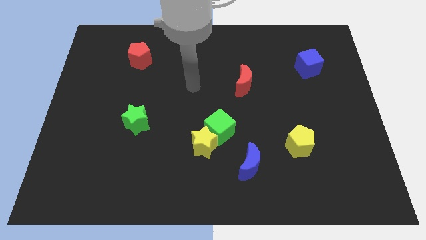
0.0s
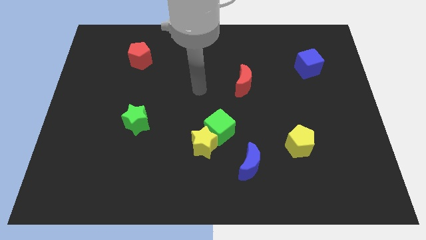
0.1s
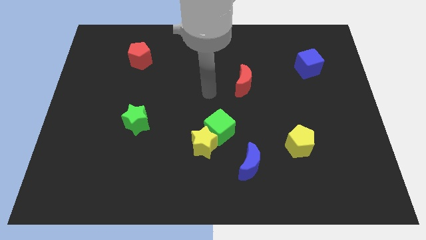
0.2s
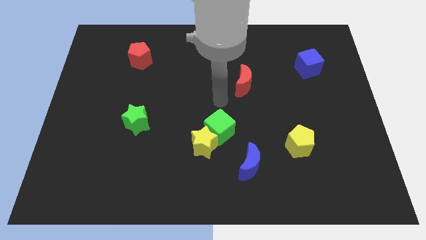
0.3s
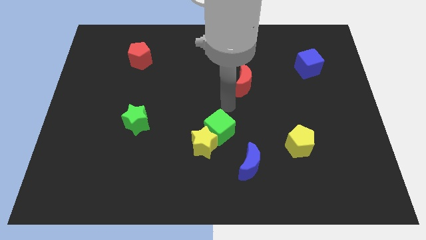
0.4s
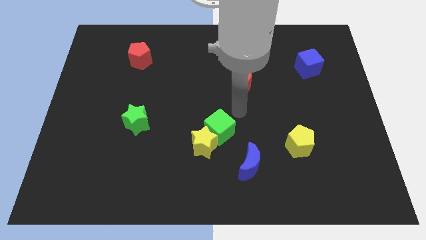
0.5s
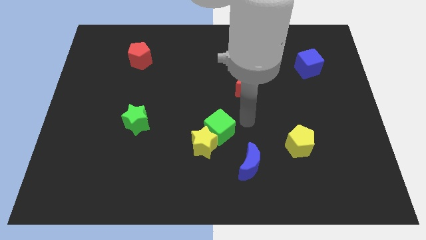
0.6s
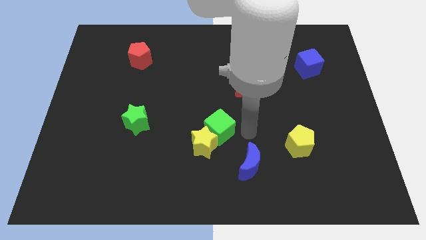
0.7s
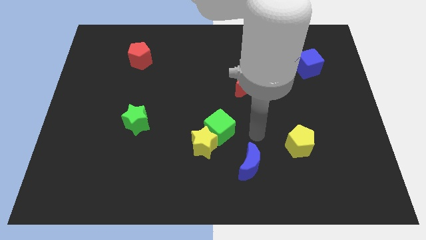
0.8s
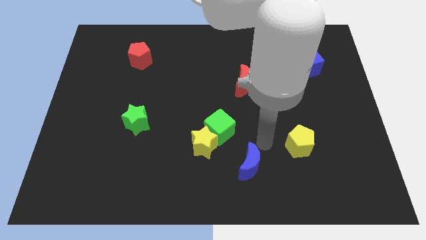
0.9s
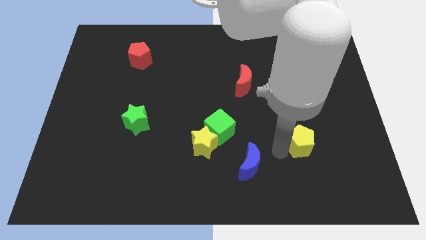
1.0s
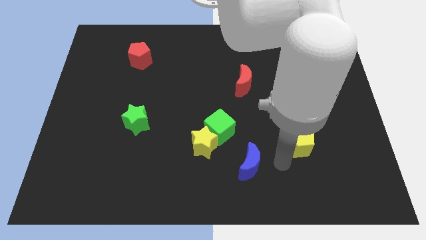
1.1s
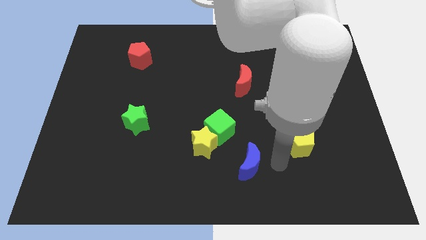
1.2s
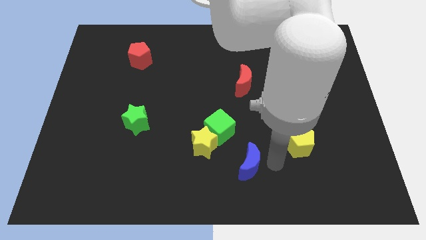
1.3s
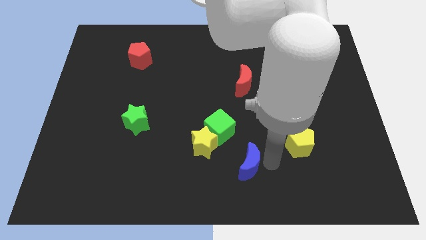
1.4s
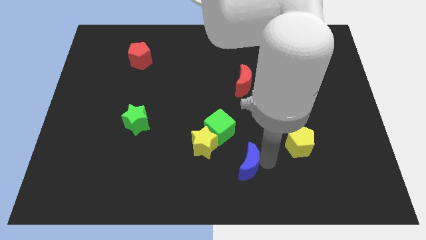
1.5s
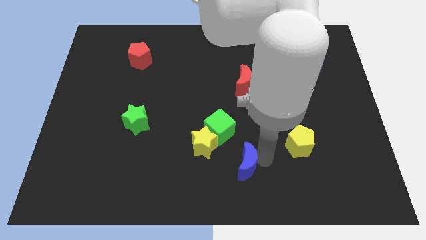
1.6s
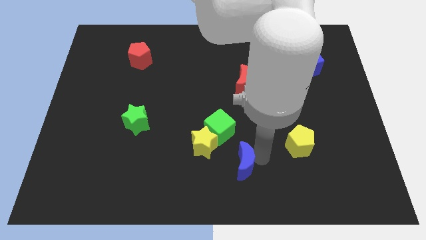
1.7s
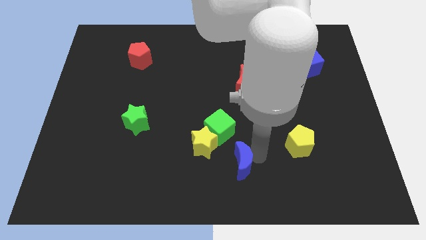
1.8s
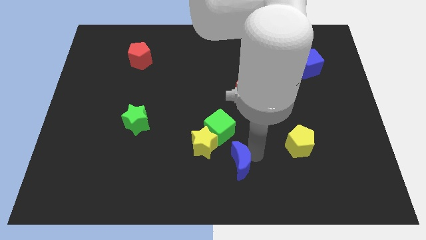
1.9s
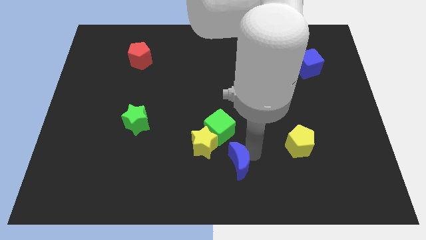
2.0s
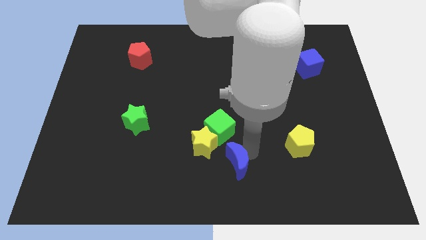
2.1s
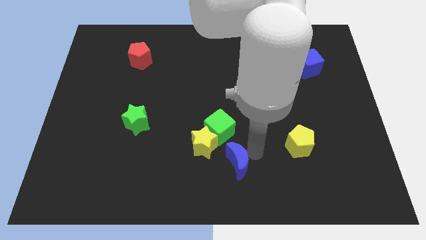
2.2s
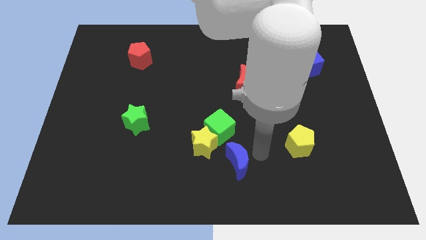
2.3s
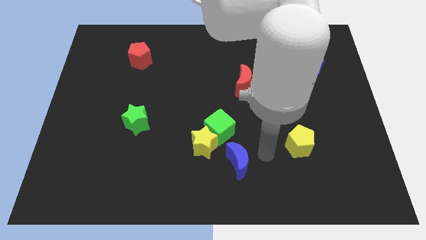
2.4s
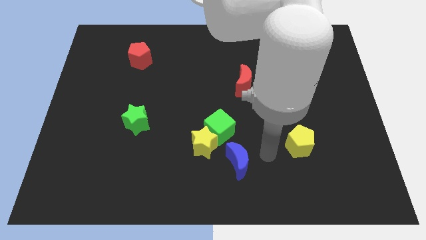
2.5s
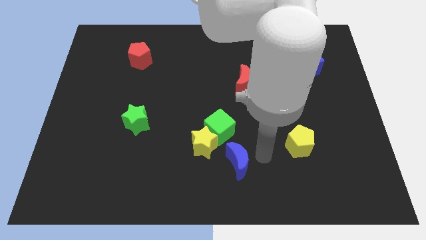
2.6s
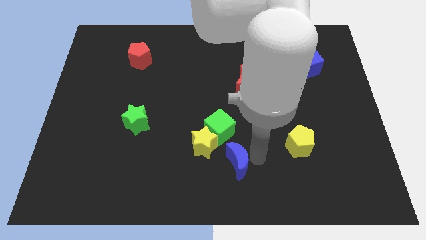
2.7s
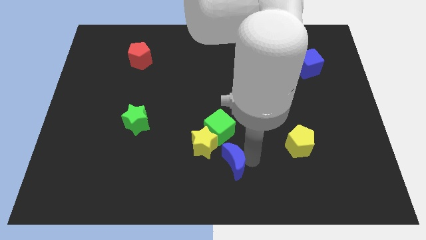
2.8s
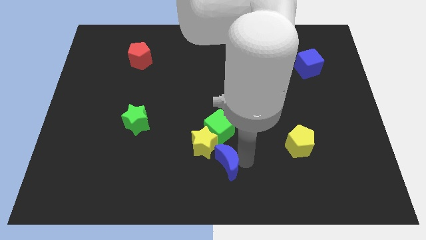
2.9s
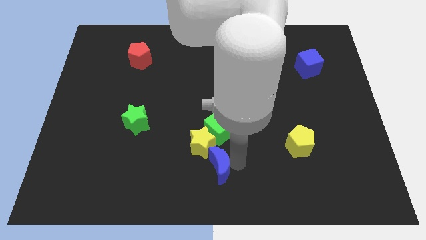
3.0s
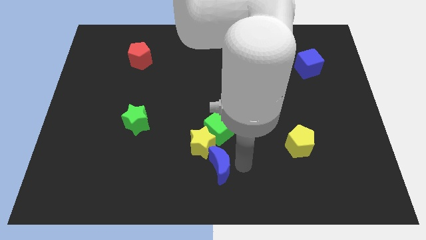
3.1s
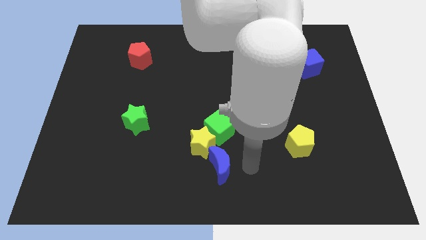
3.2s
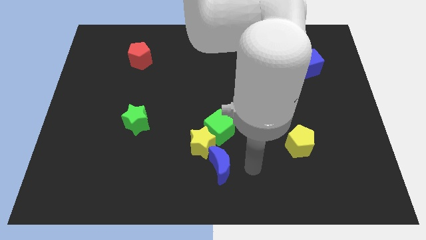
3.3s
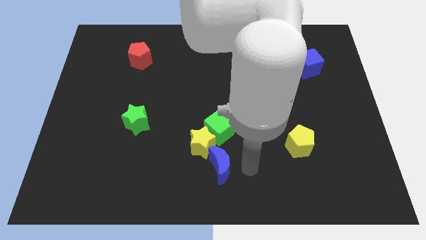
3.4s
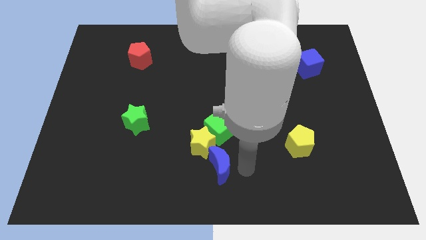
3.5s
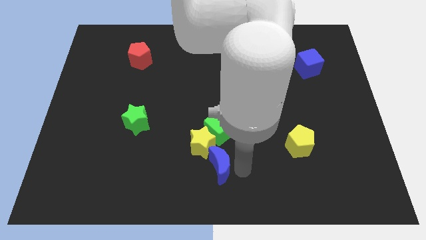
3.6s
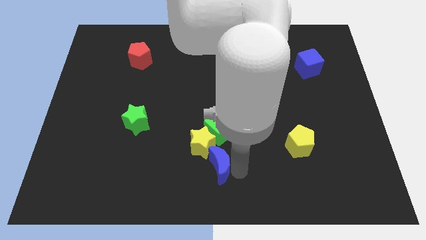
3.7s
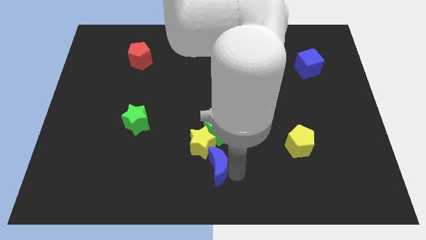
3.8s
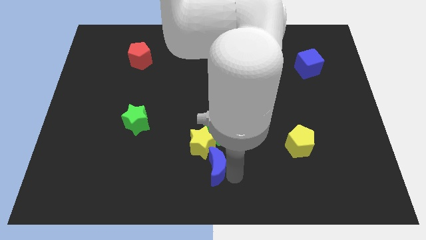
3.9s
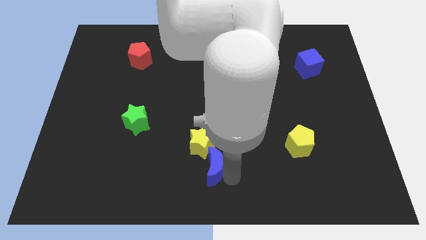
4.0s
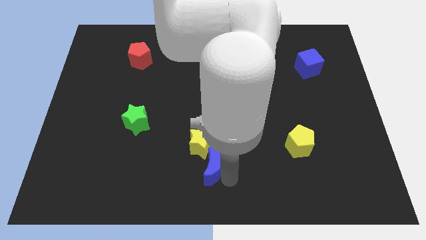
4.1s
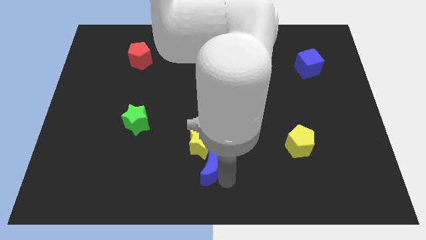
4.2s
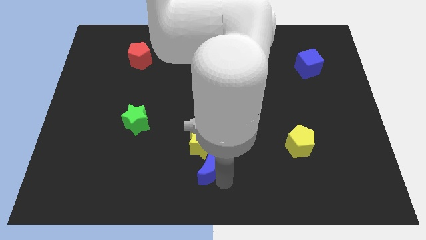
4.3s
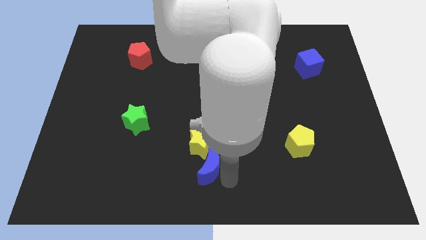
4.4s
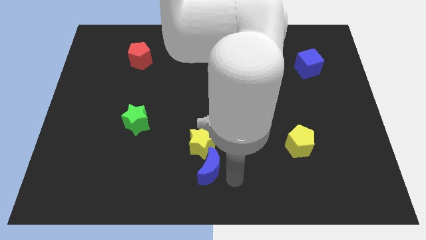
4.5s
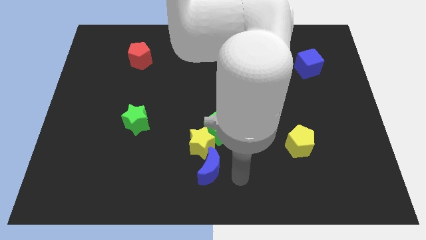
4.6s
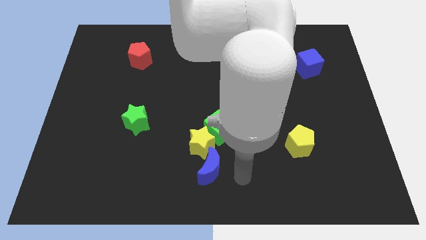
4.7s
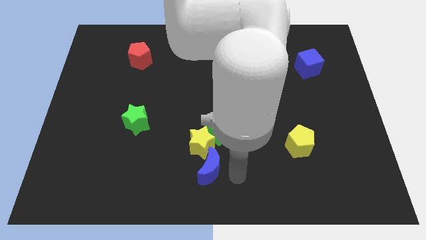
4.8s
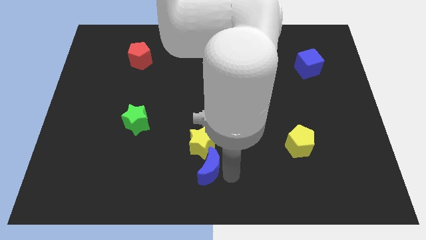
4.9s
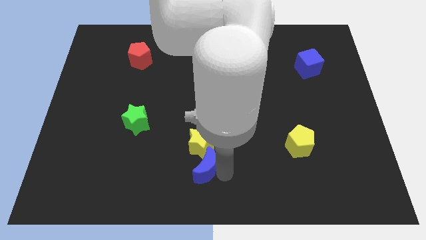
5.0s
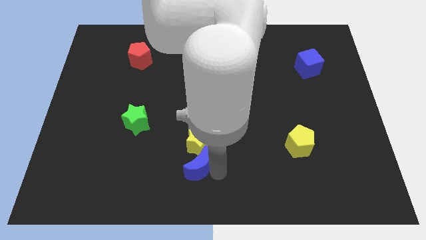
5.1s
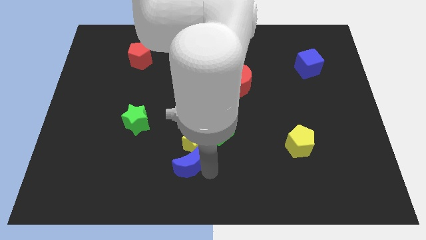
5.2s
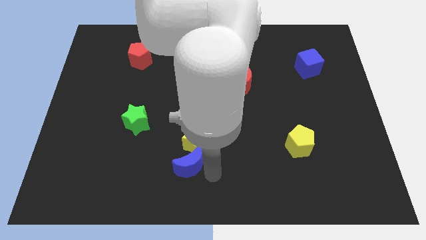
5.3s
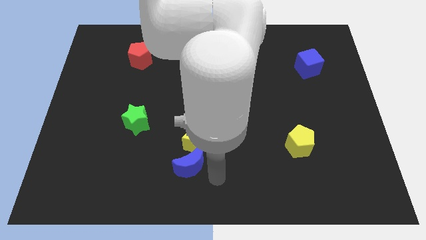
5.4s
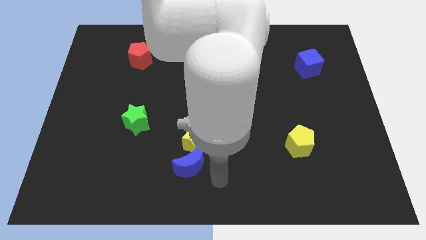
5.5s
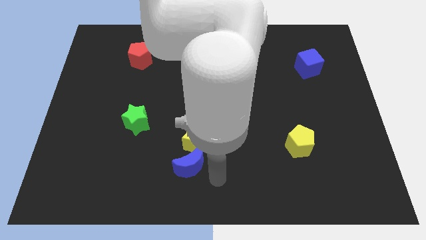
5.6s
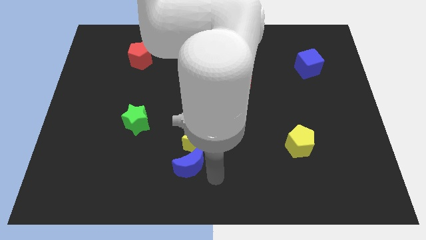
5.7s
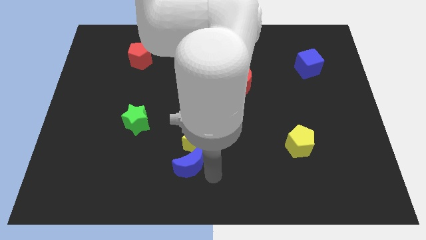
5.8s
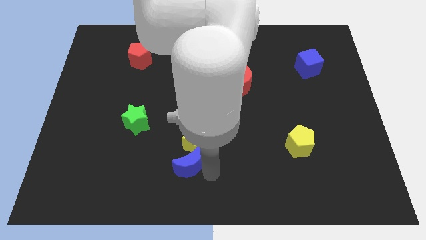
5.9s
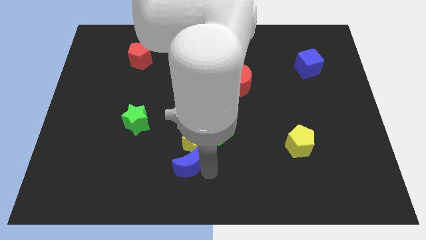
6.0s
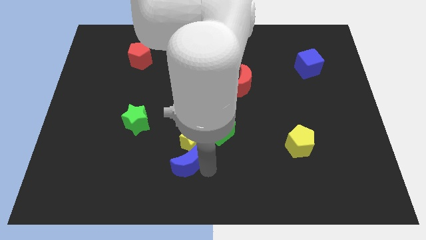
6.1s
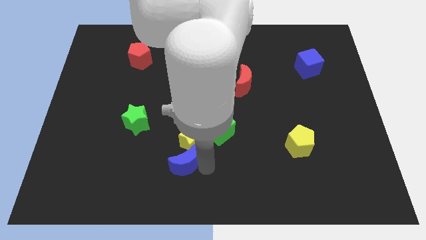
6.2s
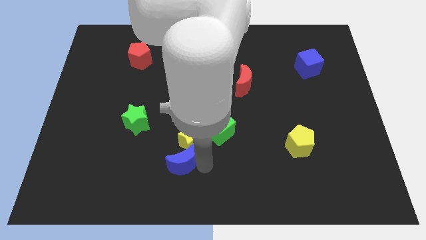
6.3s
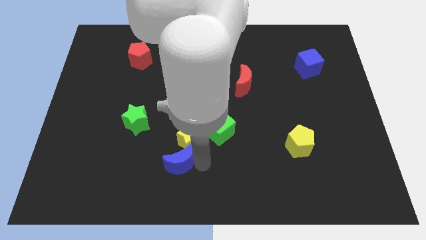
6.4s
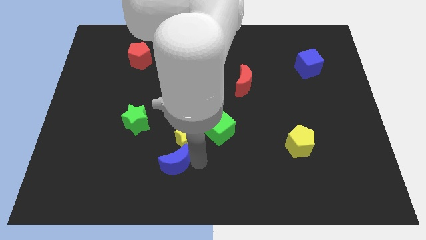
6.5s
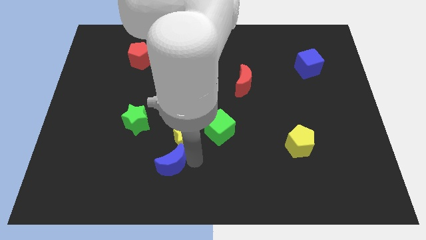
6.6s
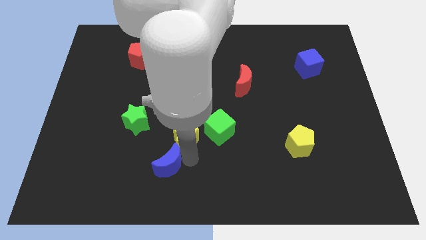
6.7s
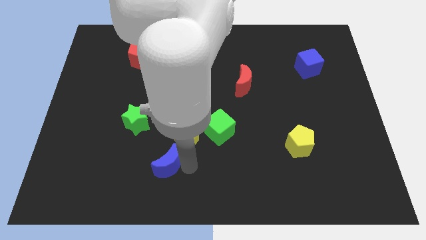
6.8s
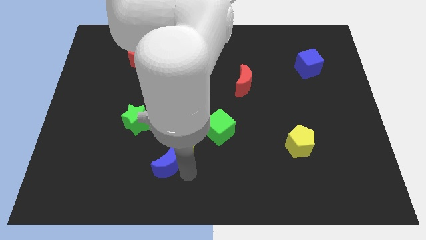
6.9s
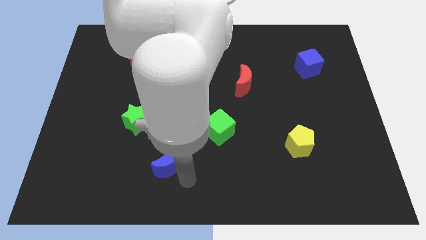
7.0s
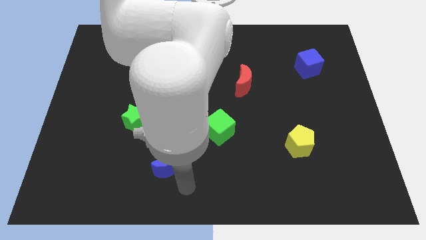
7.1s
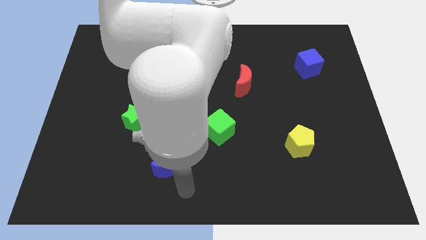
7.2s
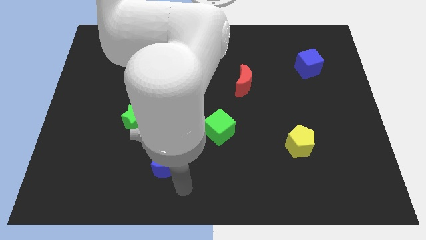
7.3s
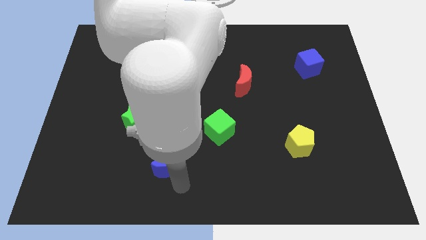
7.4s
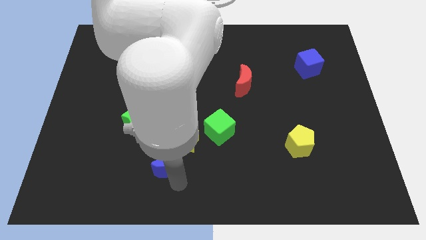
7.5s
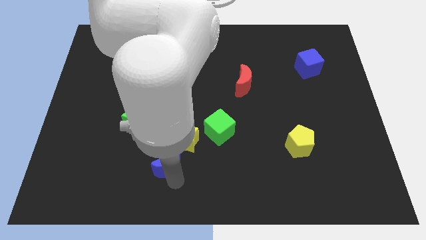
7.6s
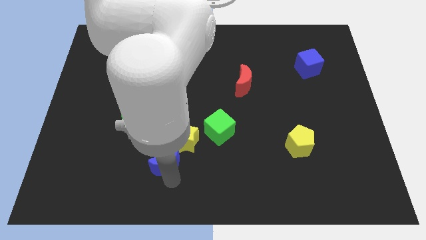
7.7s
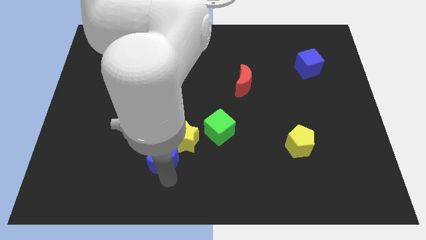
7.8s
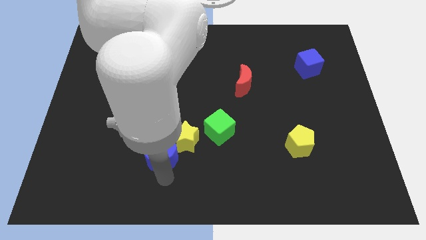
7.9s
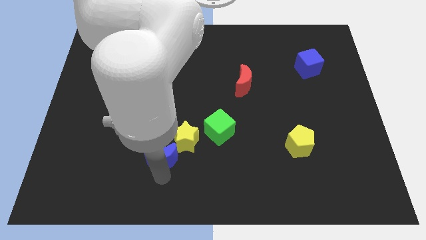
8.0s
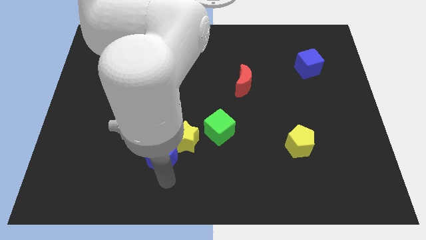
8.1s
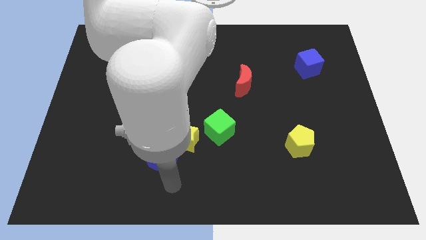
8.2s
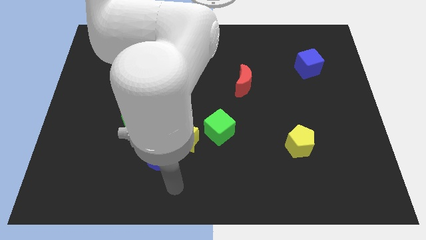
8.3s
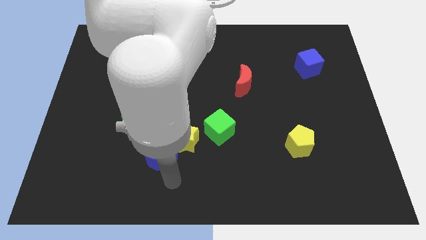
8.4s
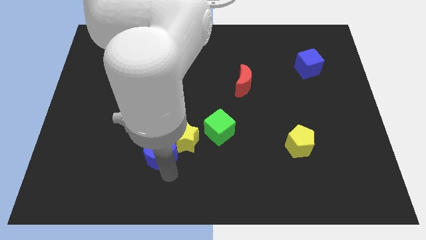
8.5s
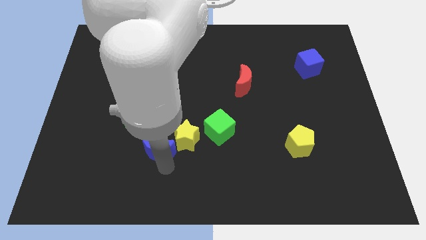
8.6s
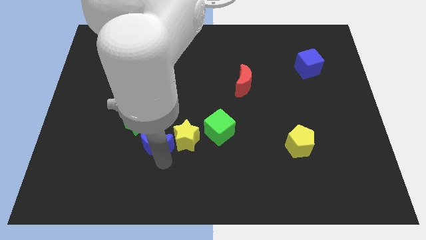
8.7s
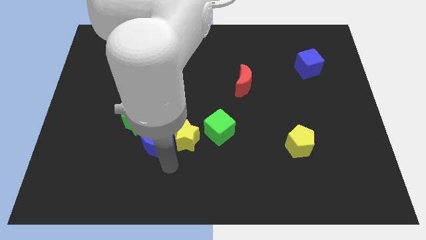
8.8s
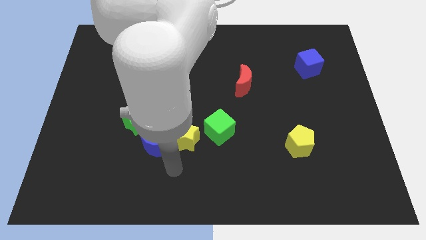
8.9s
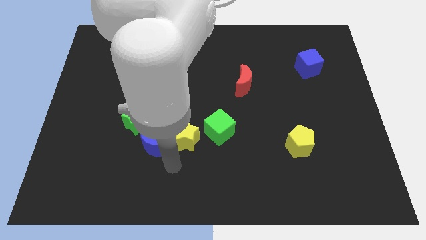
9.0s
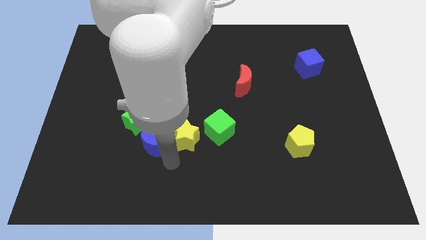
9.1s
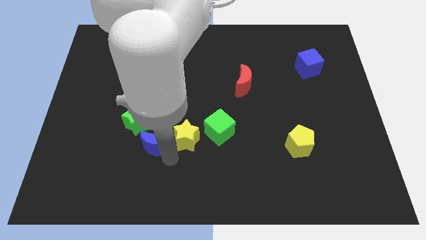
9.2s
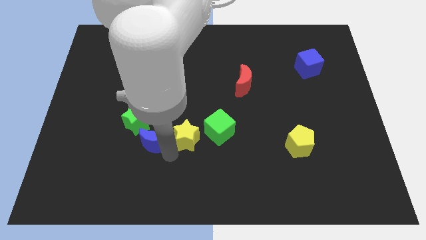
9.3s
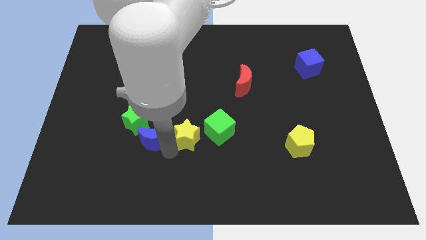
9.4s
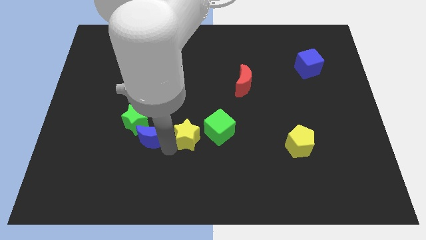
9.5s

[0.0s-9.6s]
slide the blue moon next to the green star
